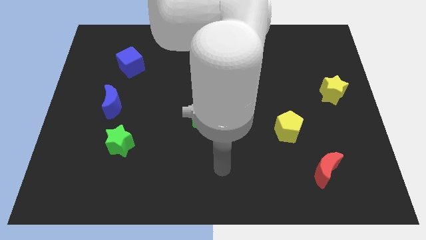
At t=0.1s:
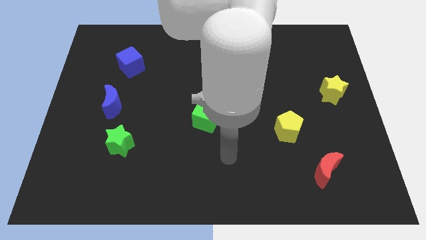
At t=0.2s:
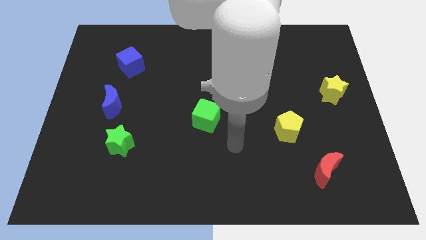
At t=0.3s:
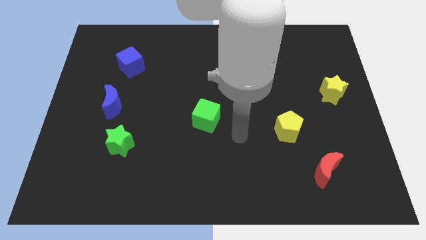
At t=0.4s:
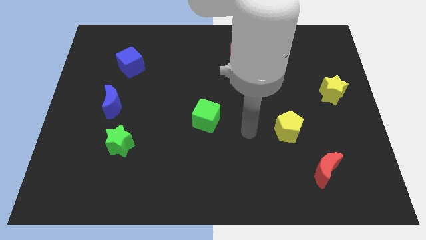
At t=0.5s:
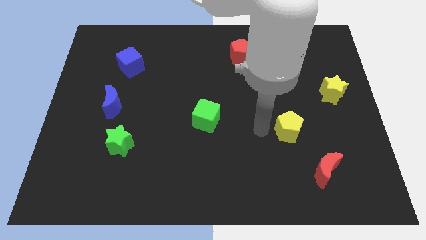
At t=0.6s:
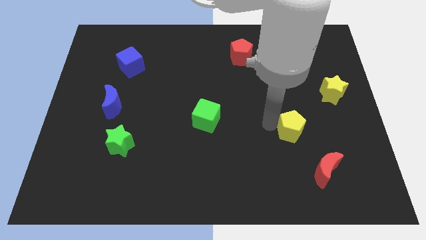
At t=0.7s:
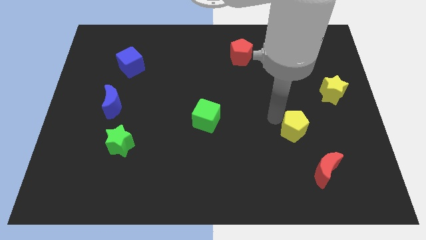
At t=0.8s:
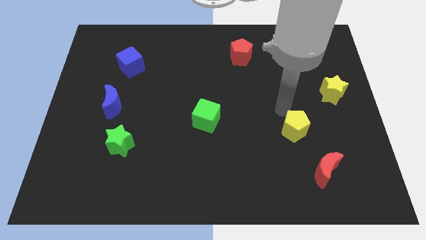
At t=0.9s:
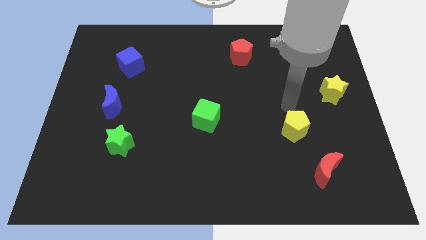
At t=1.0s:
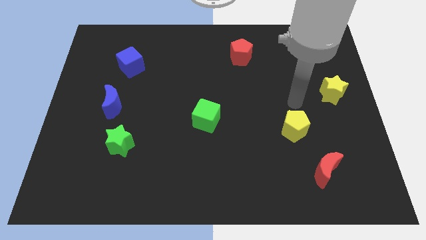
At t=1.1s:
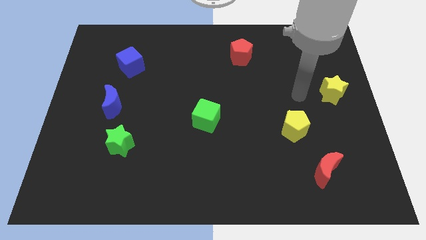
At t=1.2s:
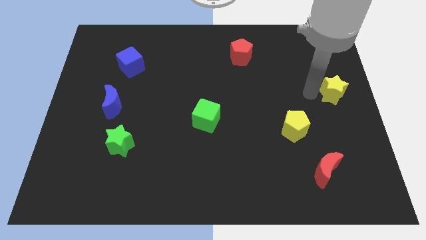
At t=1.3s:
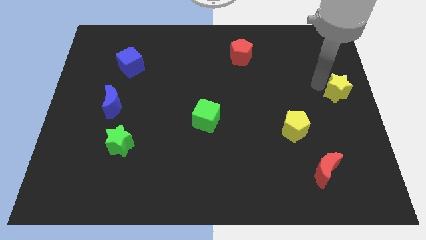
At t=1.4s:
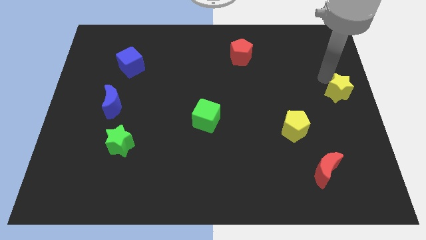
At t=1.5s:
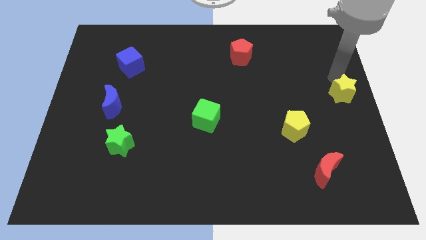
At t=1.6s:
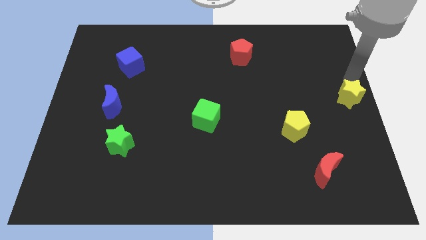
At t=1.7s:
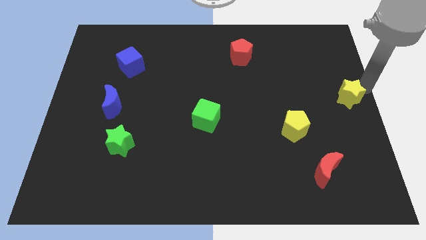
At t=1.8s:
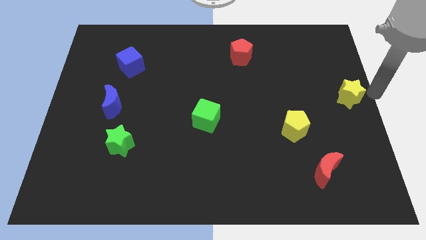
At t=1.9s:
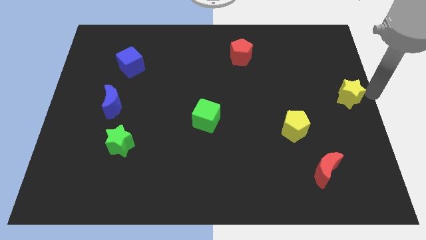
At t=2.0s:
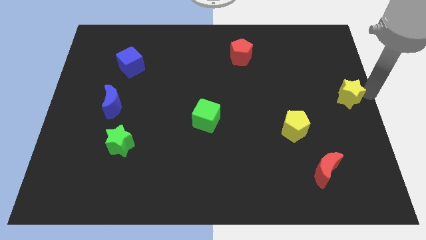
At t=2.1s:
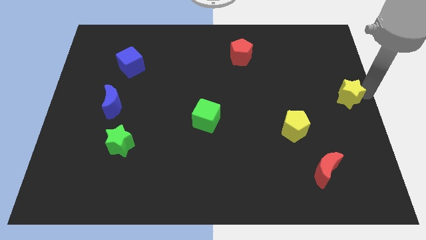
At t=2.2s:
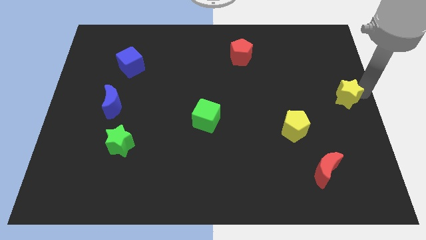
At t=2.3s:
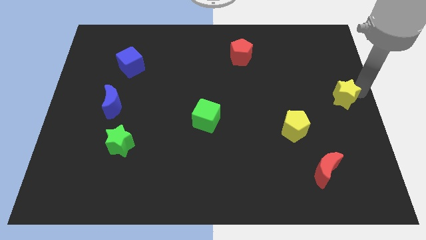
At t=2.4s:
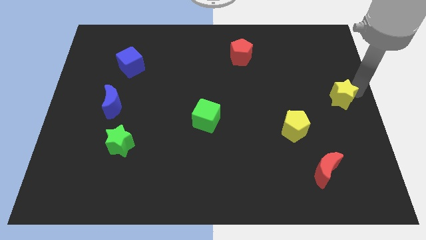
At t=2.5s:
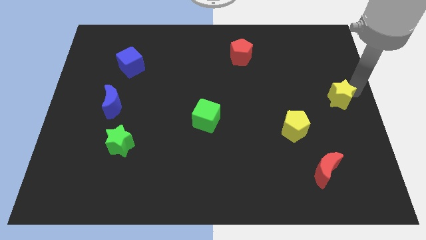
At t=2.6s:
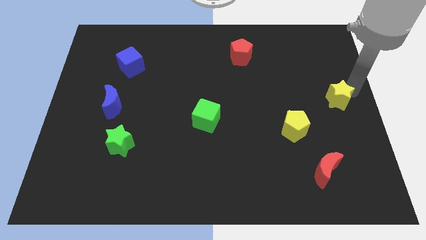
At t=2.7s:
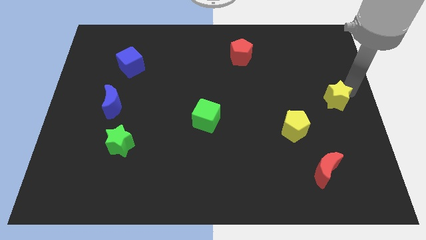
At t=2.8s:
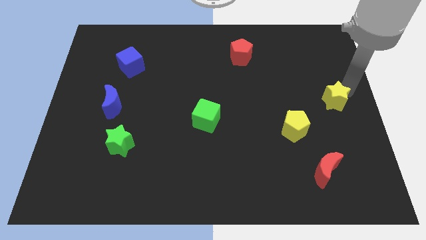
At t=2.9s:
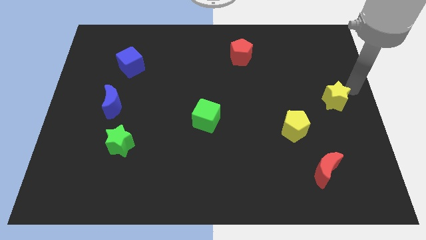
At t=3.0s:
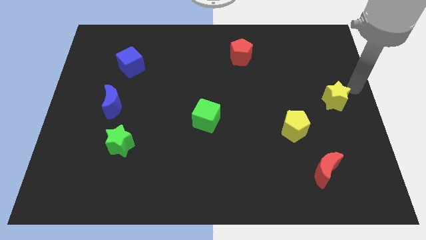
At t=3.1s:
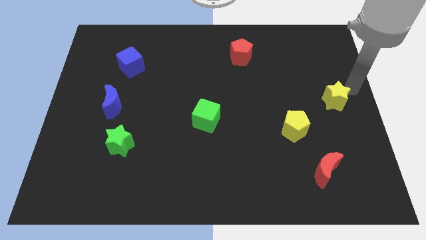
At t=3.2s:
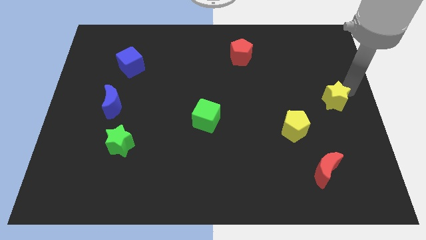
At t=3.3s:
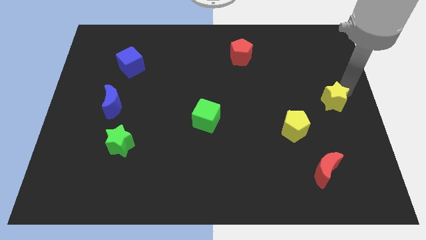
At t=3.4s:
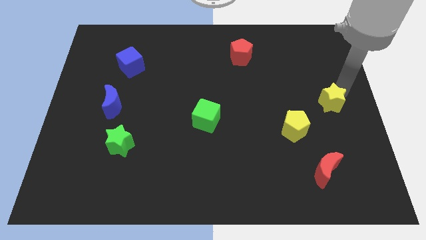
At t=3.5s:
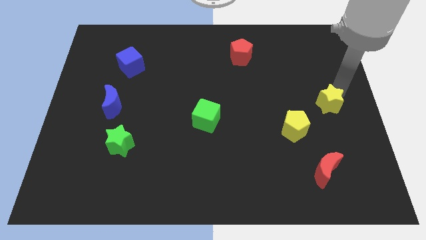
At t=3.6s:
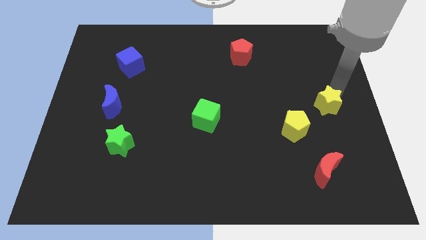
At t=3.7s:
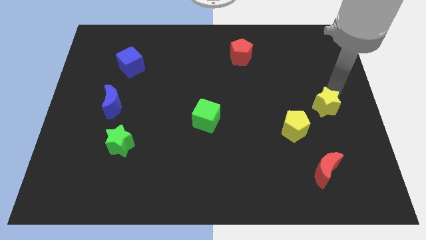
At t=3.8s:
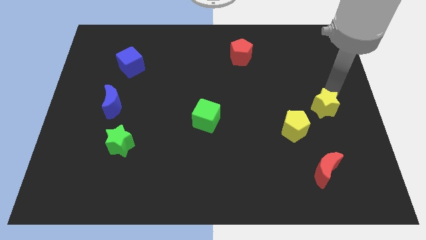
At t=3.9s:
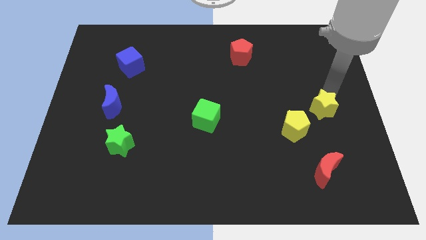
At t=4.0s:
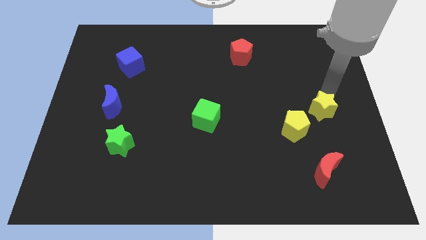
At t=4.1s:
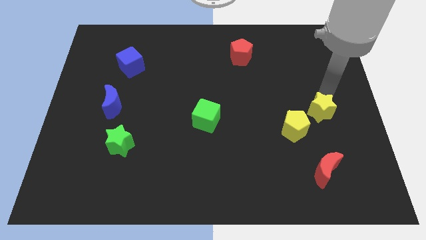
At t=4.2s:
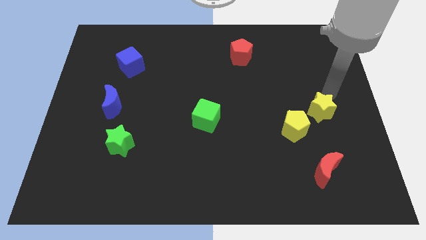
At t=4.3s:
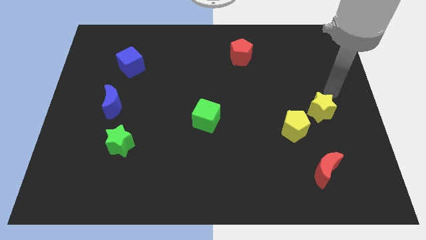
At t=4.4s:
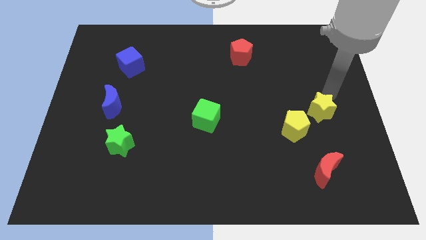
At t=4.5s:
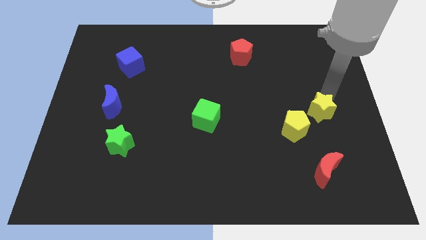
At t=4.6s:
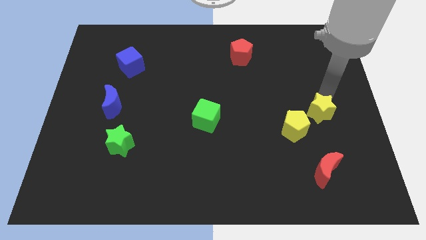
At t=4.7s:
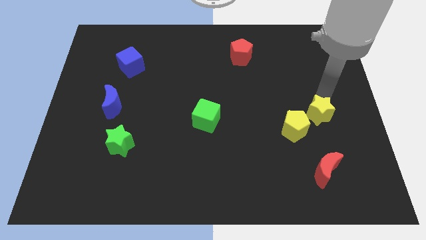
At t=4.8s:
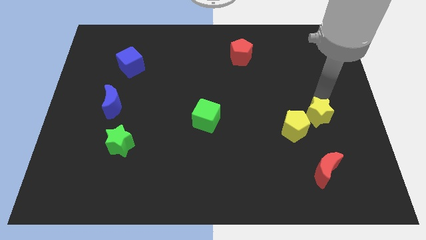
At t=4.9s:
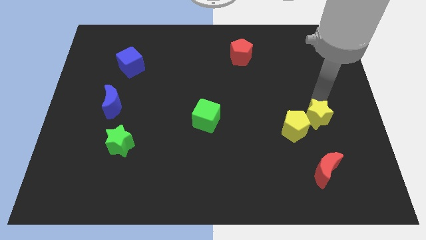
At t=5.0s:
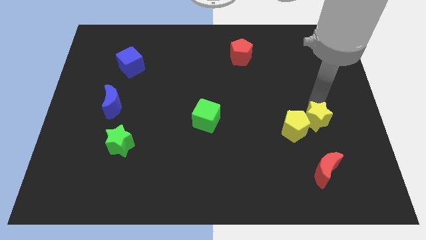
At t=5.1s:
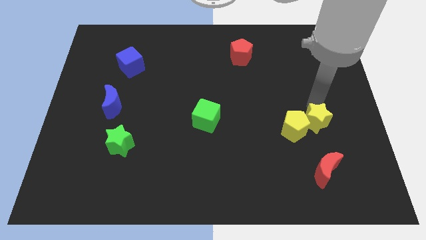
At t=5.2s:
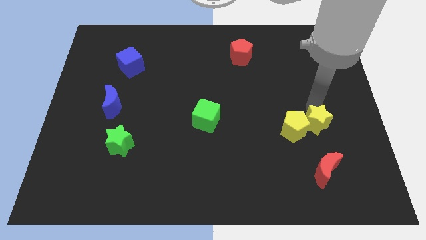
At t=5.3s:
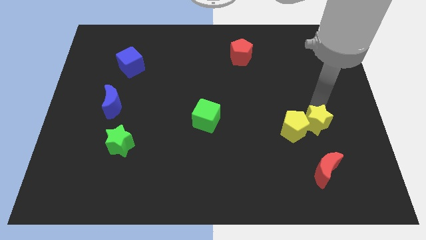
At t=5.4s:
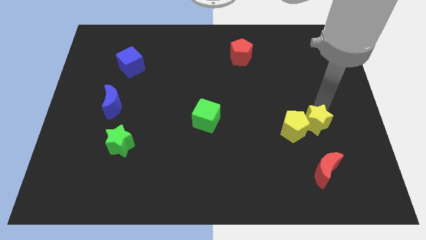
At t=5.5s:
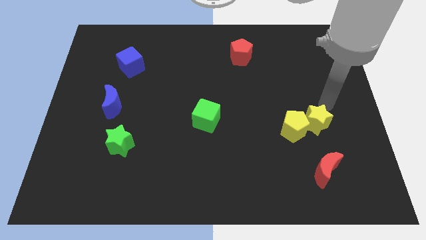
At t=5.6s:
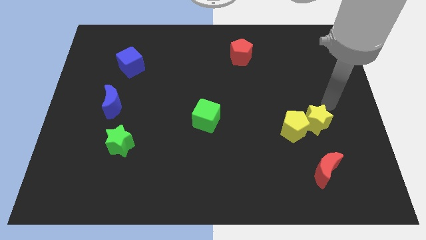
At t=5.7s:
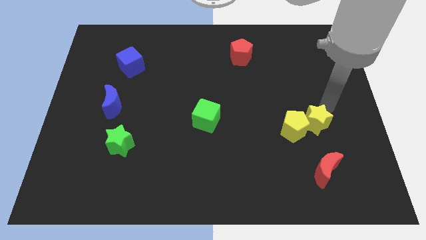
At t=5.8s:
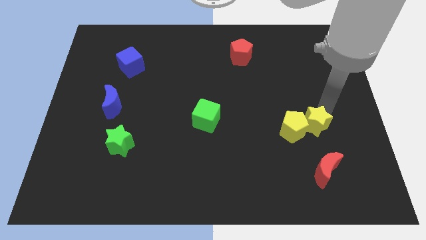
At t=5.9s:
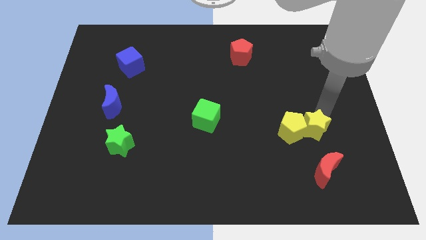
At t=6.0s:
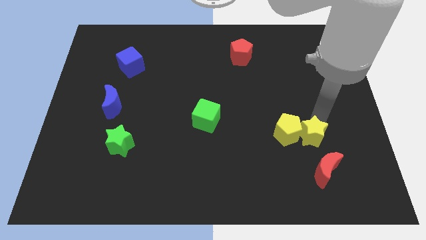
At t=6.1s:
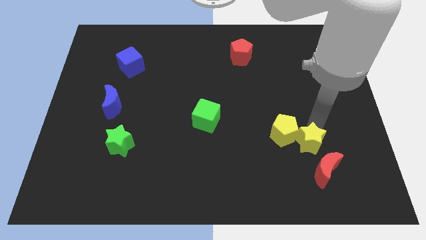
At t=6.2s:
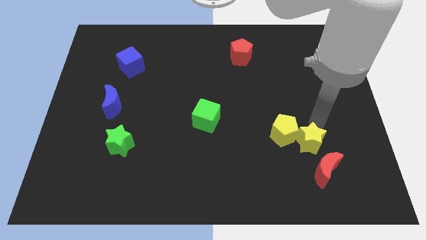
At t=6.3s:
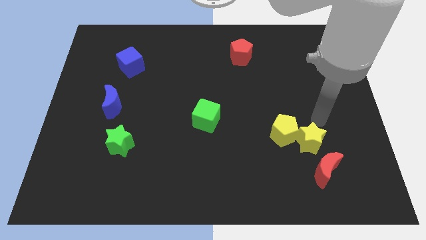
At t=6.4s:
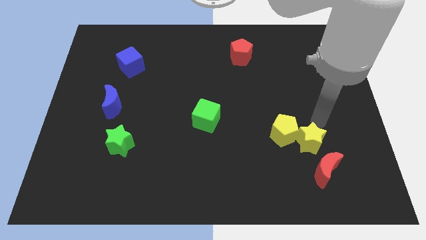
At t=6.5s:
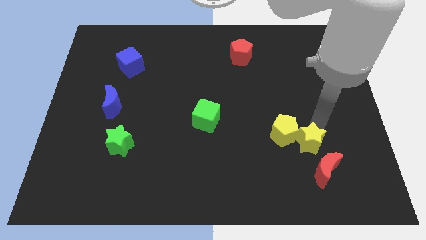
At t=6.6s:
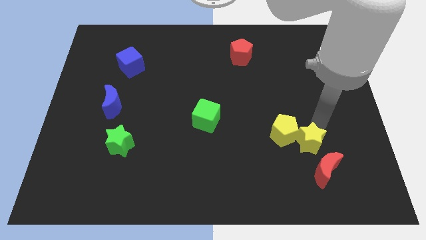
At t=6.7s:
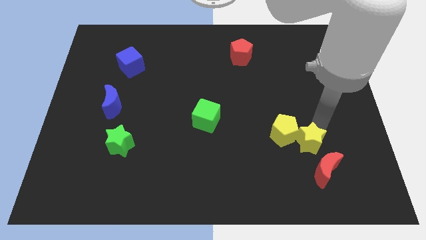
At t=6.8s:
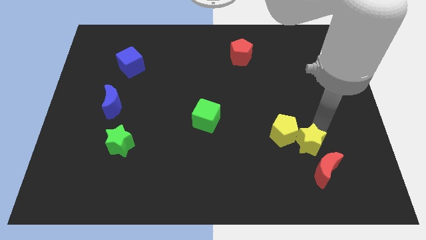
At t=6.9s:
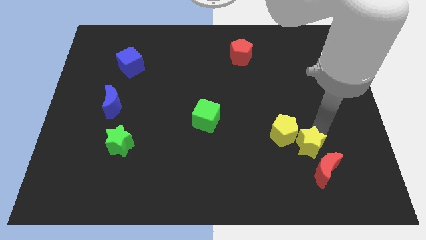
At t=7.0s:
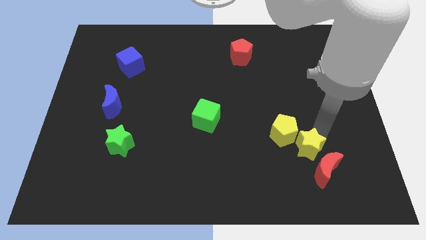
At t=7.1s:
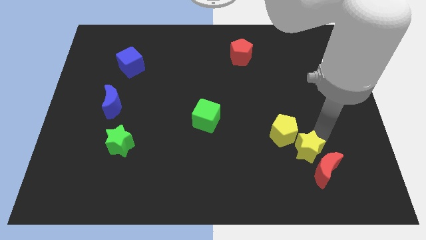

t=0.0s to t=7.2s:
move the yellow star below the yellow pentagon
